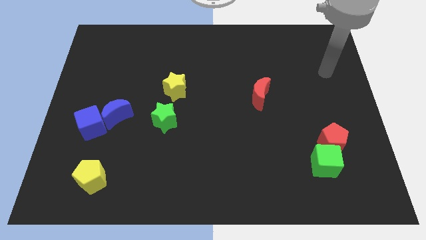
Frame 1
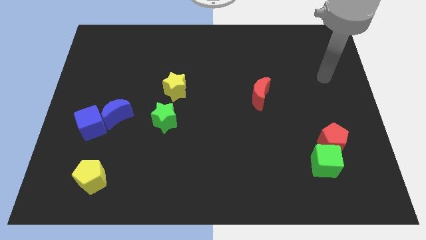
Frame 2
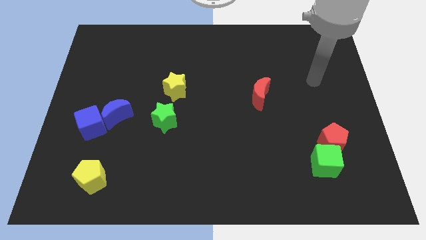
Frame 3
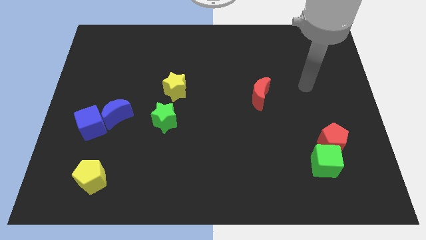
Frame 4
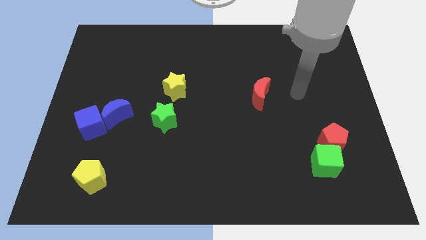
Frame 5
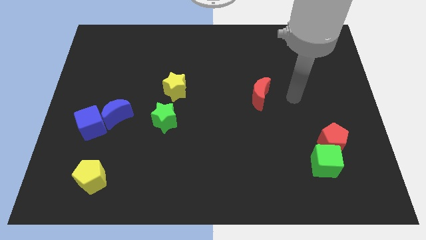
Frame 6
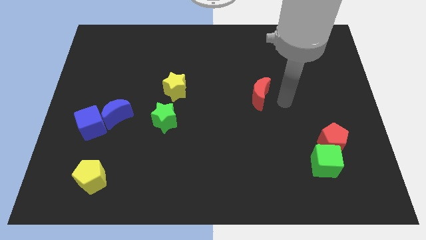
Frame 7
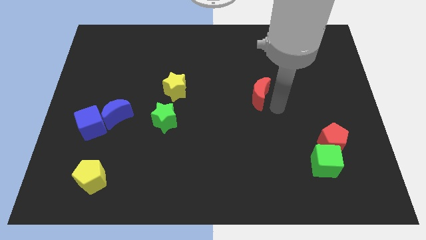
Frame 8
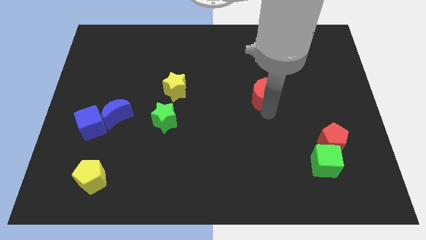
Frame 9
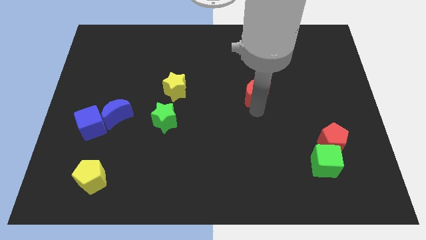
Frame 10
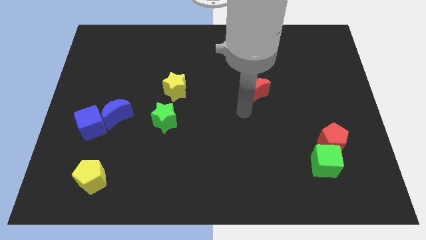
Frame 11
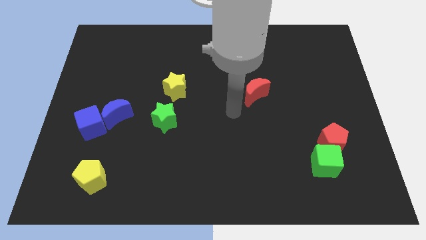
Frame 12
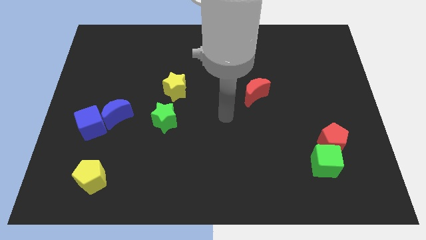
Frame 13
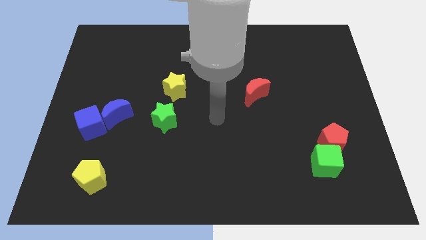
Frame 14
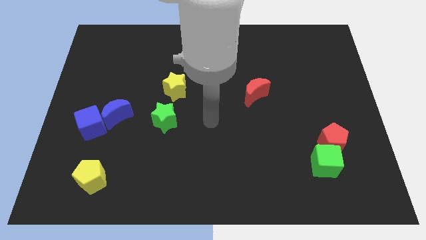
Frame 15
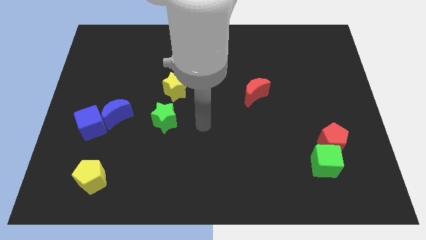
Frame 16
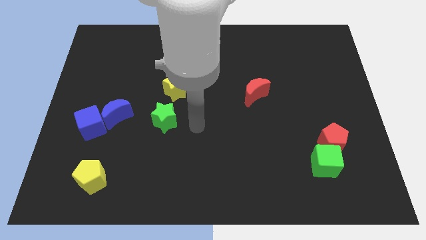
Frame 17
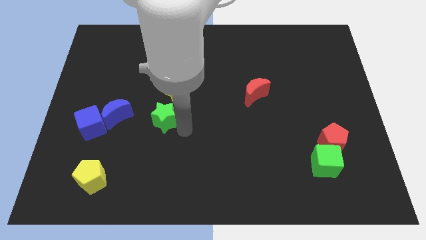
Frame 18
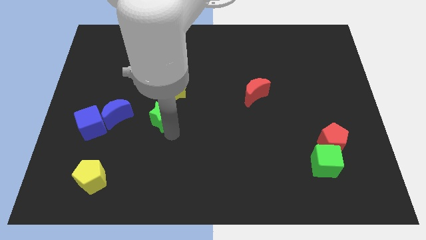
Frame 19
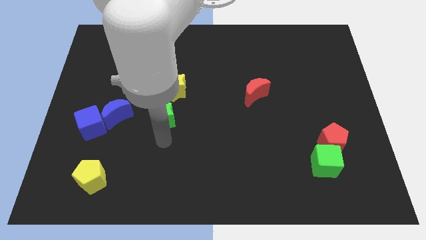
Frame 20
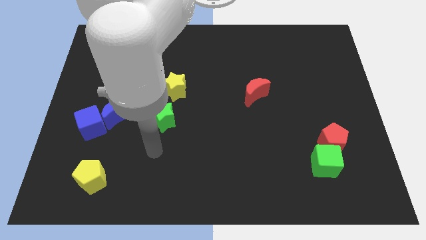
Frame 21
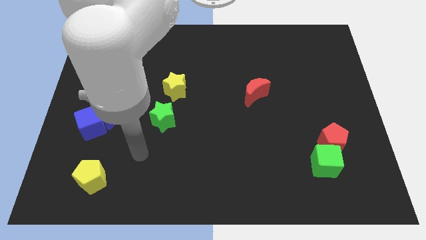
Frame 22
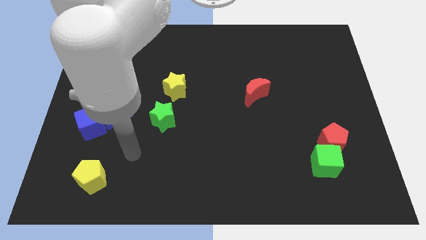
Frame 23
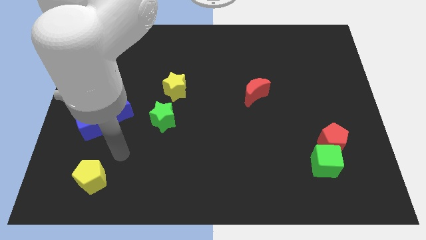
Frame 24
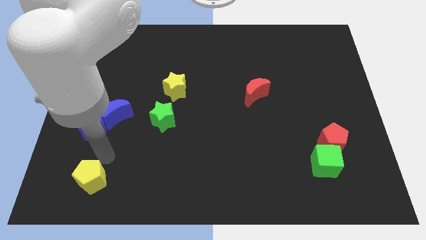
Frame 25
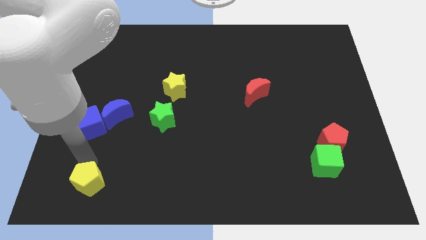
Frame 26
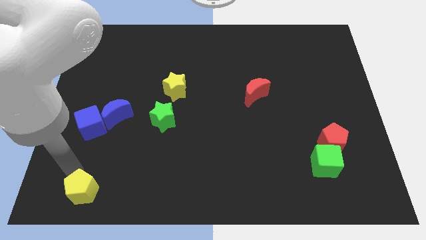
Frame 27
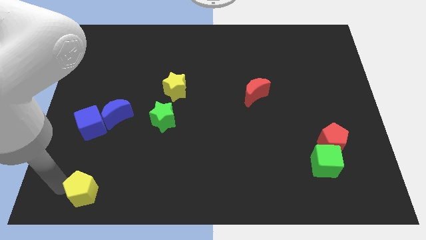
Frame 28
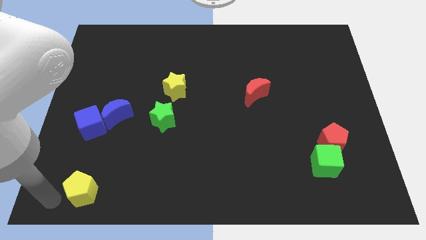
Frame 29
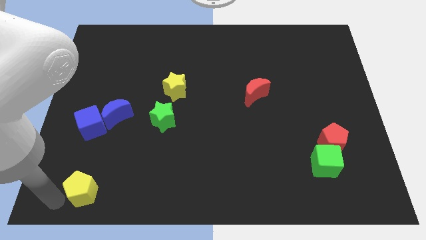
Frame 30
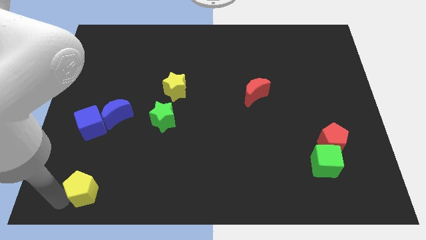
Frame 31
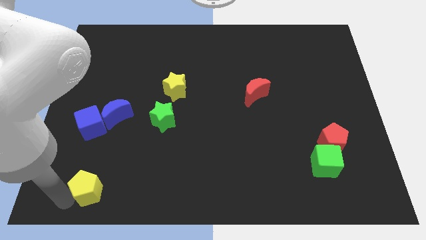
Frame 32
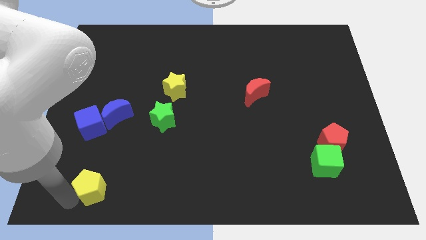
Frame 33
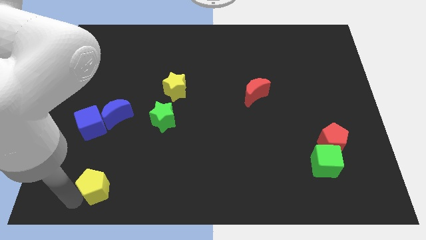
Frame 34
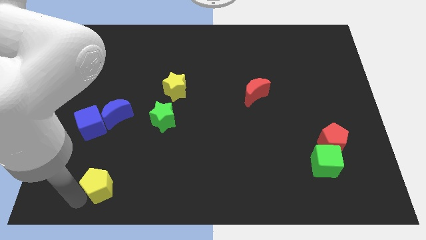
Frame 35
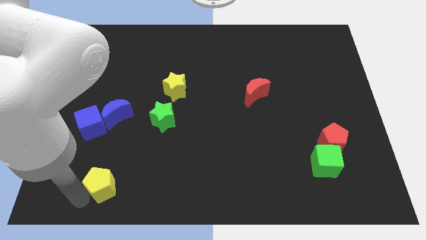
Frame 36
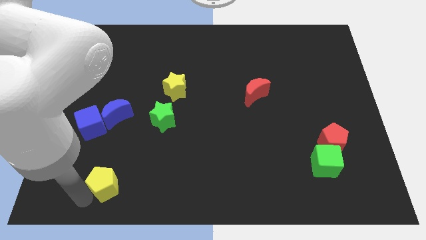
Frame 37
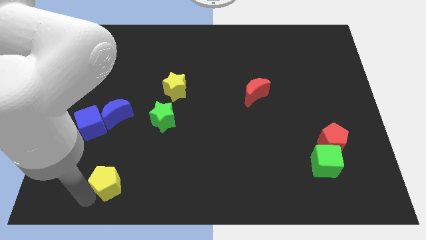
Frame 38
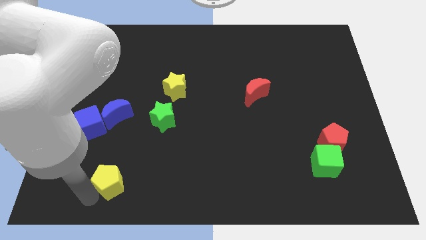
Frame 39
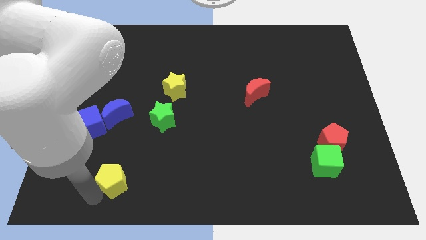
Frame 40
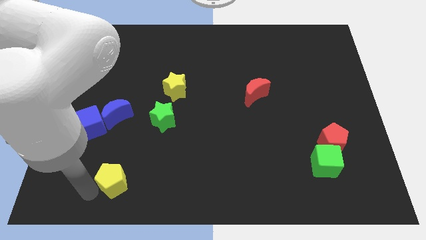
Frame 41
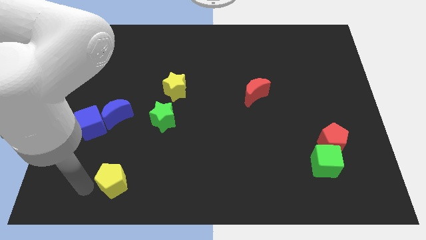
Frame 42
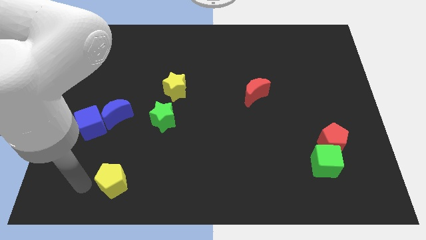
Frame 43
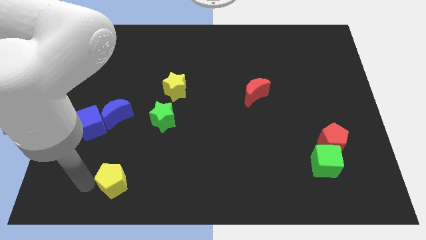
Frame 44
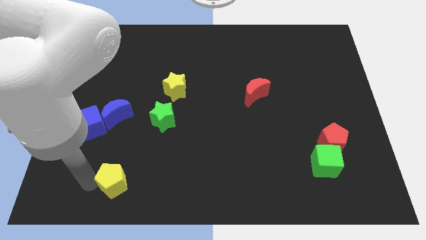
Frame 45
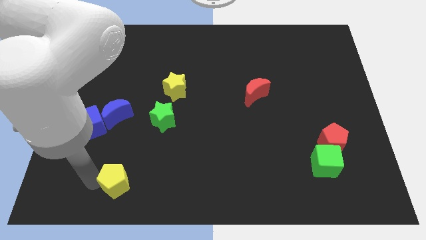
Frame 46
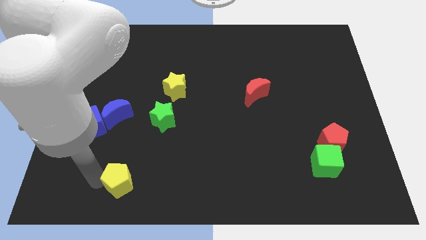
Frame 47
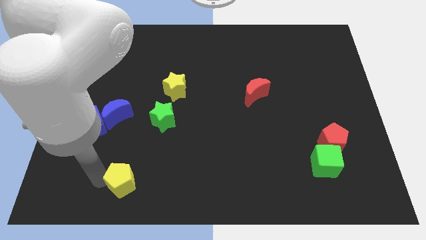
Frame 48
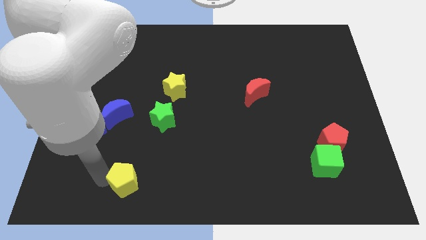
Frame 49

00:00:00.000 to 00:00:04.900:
move the yellow pentagon to the right slightly

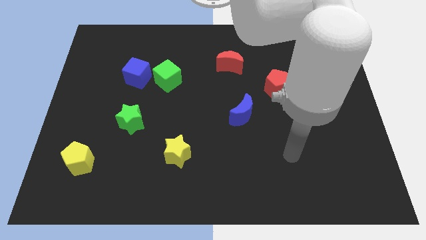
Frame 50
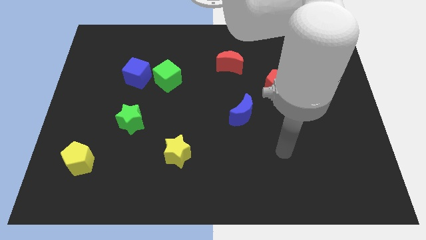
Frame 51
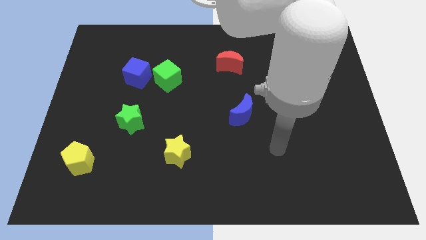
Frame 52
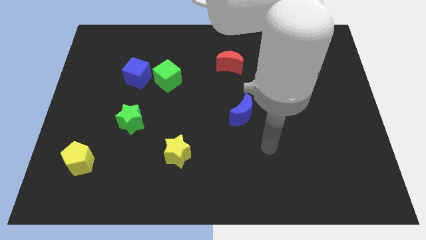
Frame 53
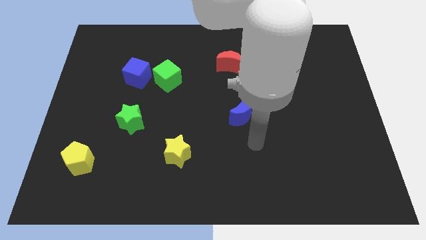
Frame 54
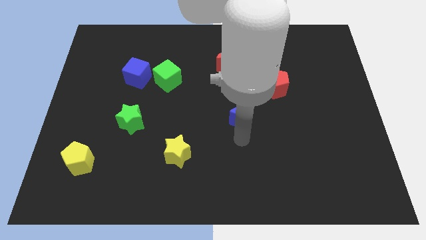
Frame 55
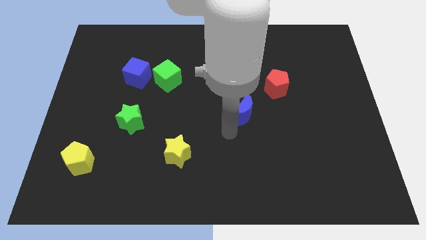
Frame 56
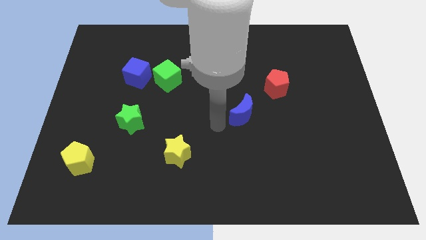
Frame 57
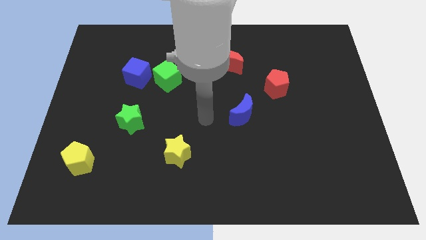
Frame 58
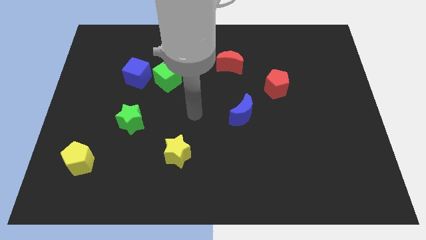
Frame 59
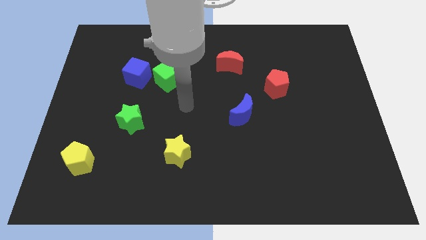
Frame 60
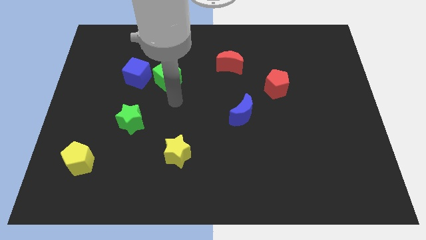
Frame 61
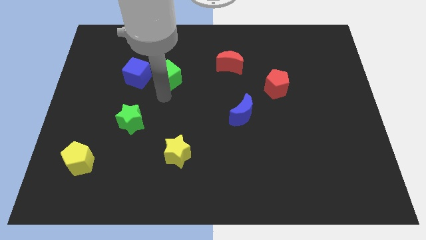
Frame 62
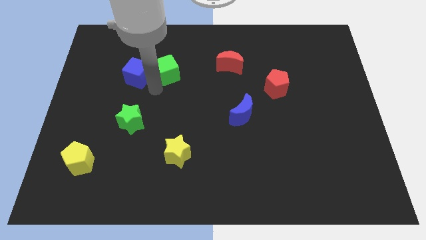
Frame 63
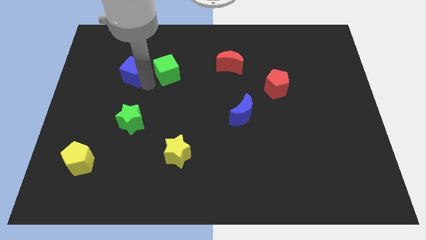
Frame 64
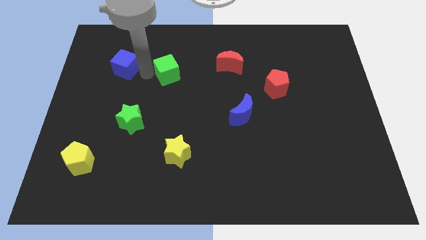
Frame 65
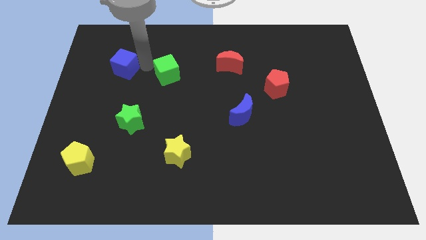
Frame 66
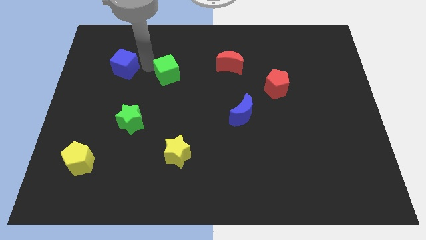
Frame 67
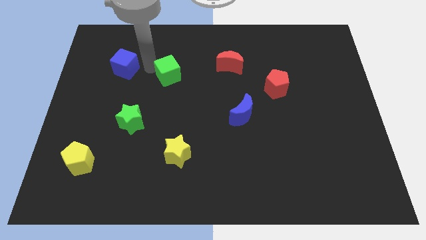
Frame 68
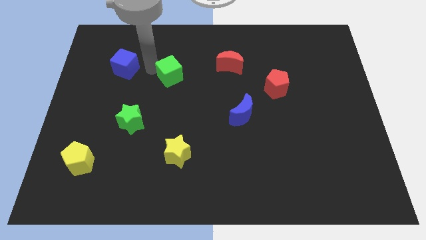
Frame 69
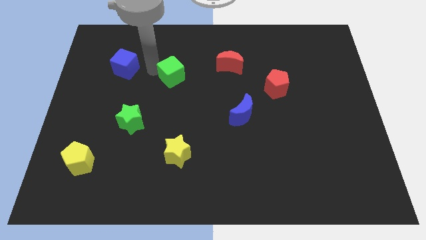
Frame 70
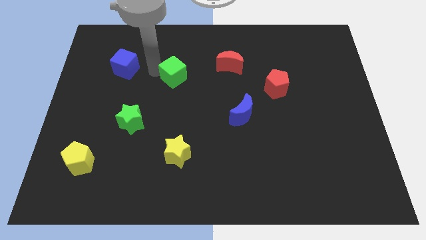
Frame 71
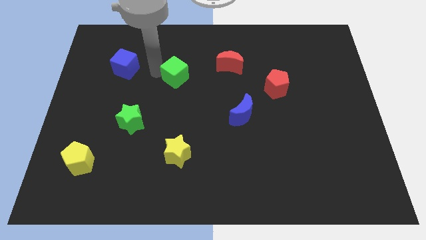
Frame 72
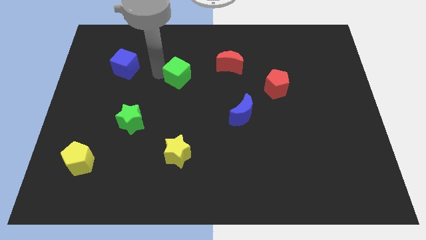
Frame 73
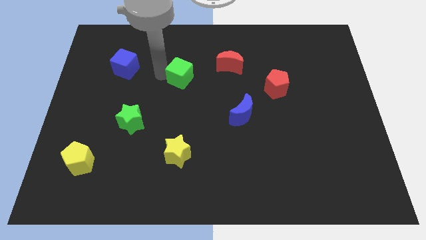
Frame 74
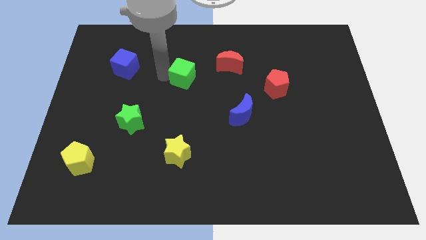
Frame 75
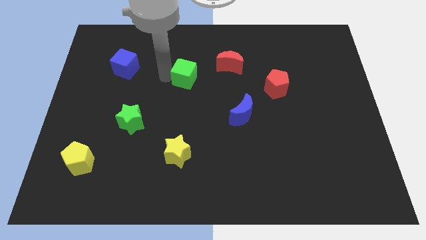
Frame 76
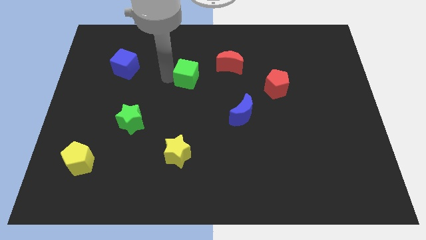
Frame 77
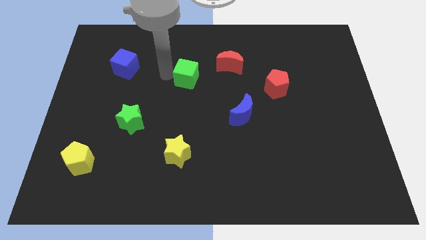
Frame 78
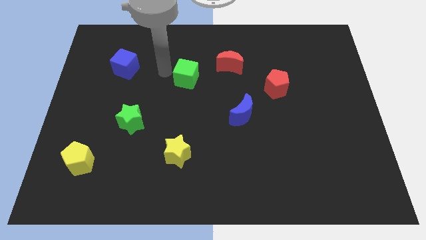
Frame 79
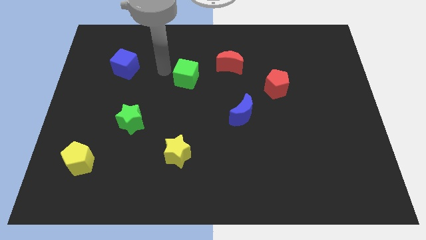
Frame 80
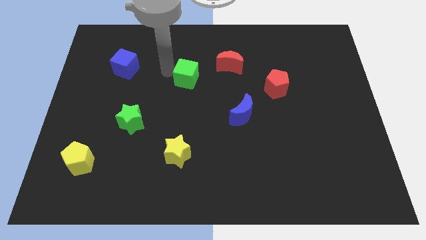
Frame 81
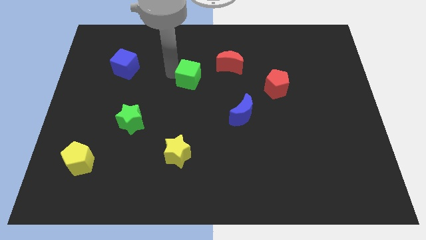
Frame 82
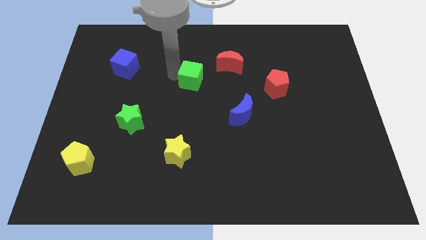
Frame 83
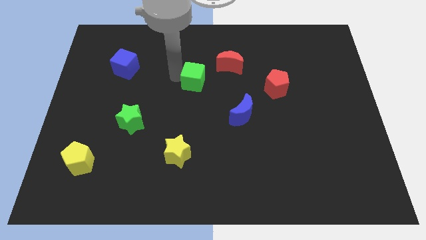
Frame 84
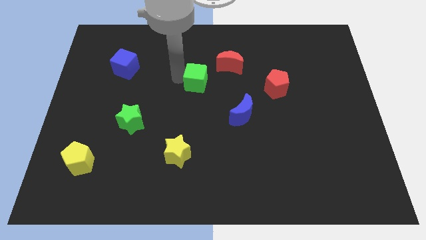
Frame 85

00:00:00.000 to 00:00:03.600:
move the green cube to the right somewhat
